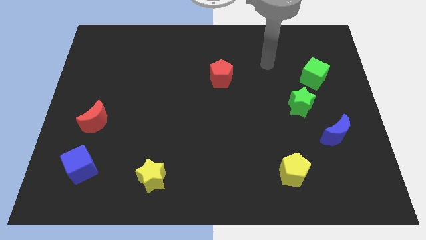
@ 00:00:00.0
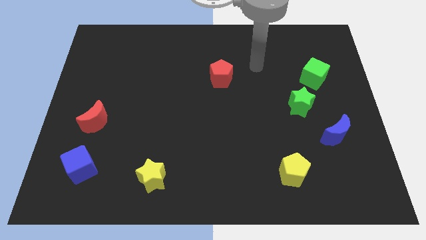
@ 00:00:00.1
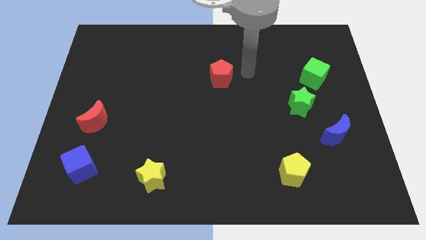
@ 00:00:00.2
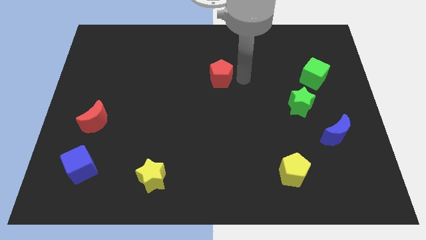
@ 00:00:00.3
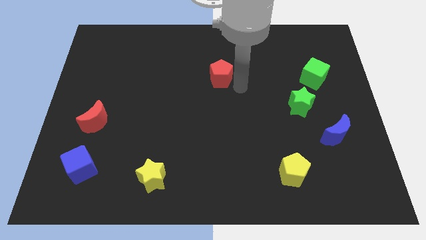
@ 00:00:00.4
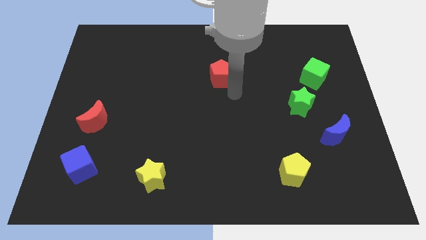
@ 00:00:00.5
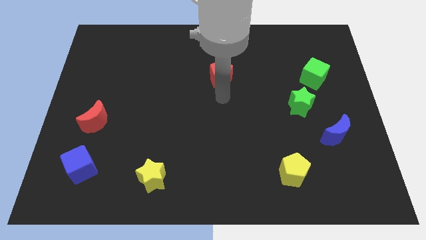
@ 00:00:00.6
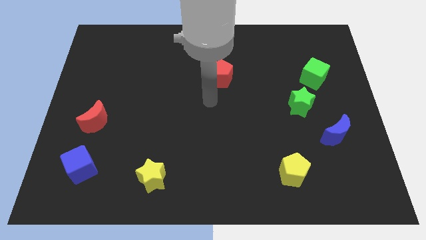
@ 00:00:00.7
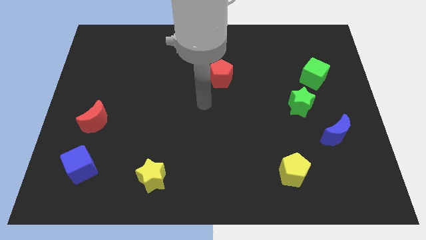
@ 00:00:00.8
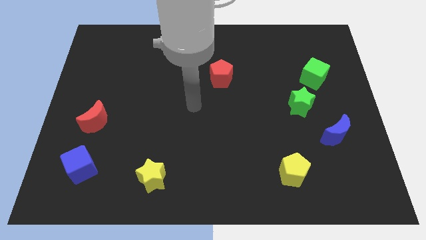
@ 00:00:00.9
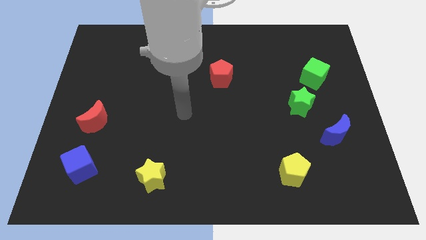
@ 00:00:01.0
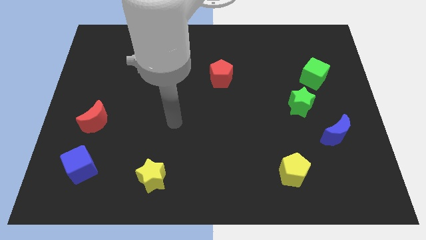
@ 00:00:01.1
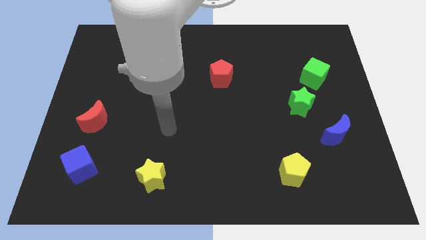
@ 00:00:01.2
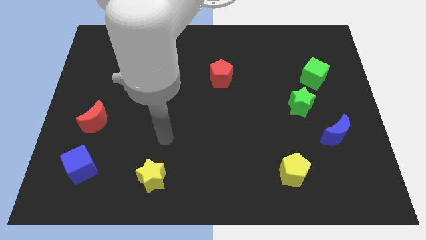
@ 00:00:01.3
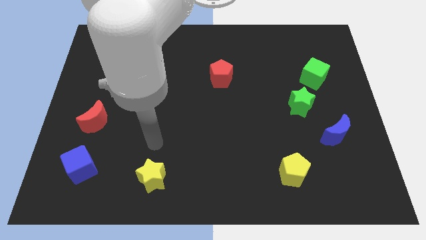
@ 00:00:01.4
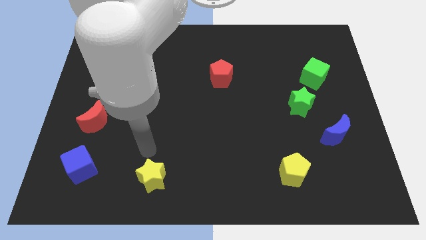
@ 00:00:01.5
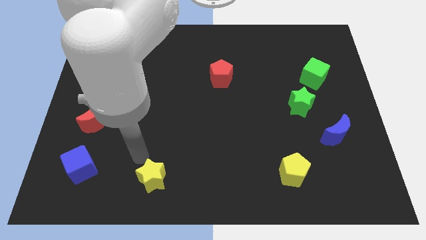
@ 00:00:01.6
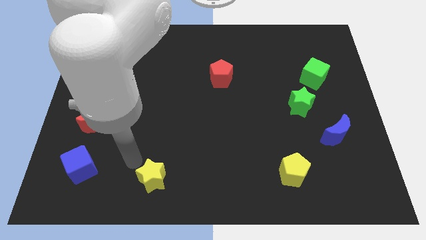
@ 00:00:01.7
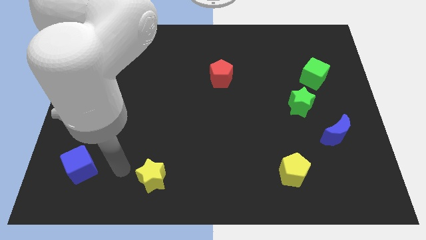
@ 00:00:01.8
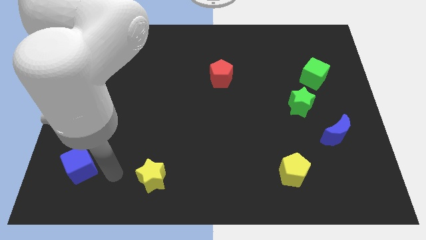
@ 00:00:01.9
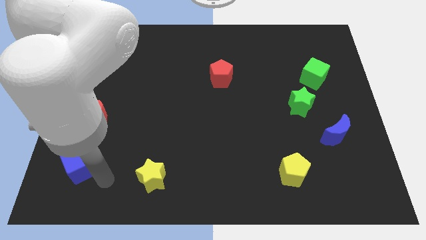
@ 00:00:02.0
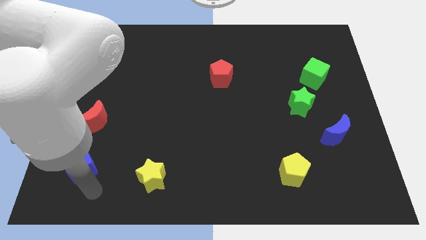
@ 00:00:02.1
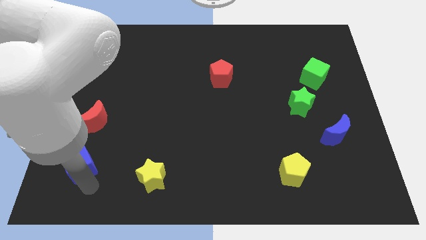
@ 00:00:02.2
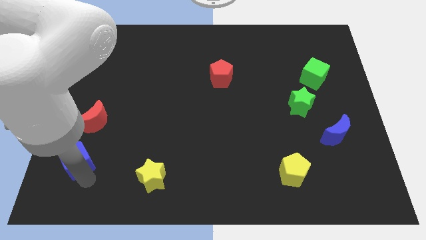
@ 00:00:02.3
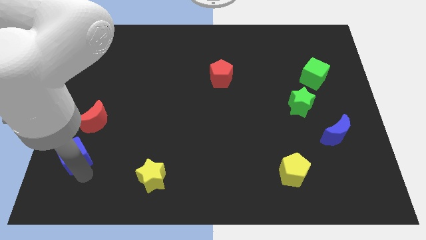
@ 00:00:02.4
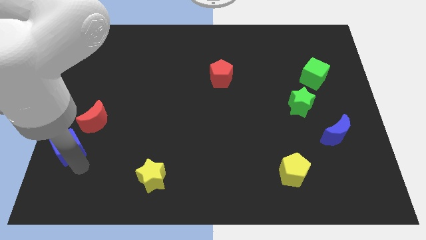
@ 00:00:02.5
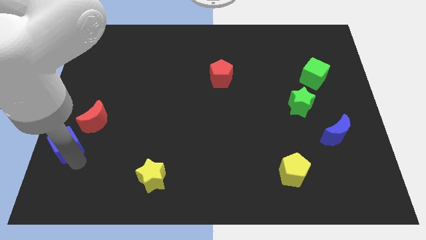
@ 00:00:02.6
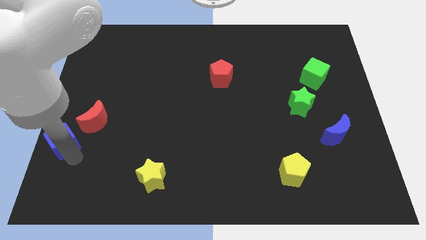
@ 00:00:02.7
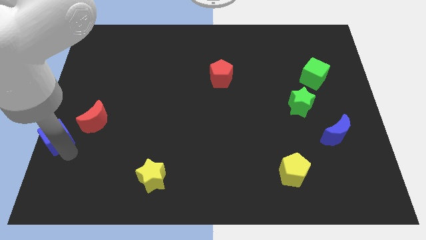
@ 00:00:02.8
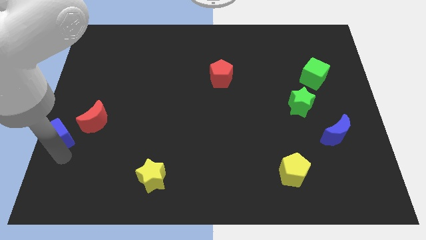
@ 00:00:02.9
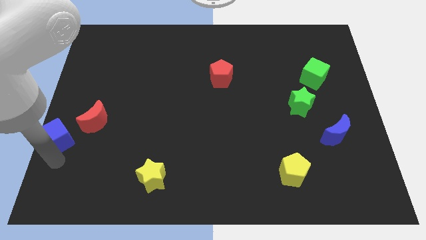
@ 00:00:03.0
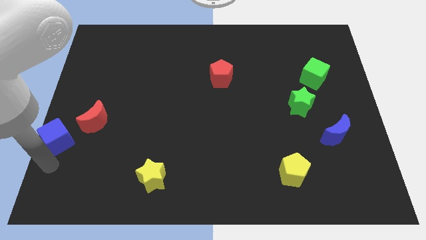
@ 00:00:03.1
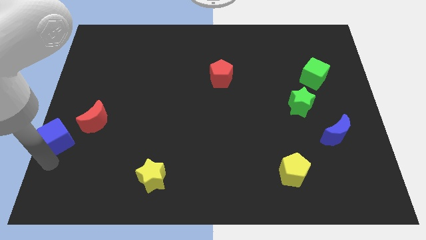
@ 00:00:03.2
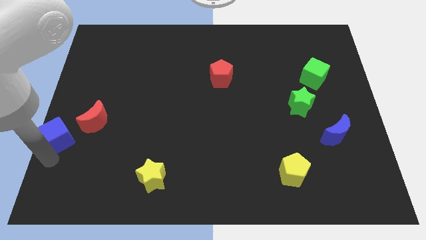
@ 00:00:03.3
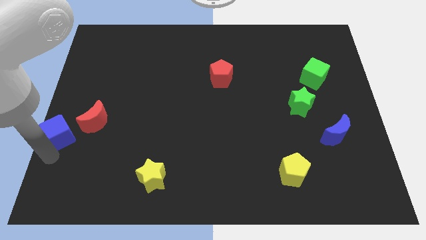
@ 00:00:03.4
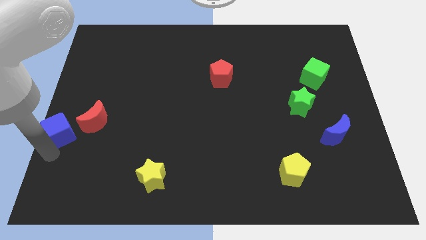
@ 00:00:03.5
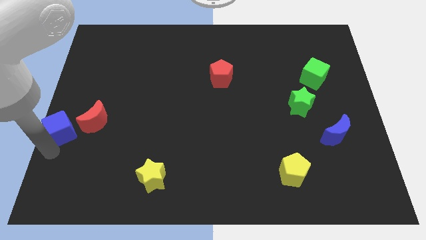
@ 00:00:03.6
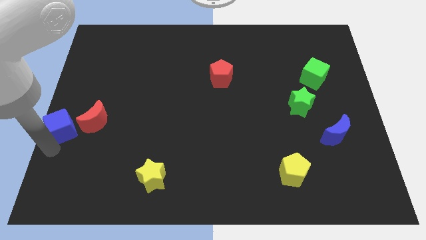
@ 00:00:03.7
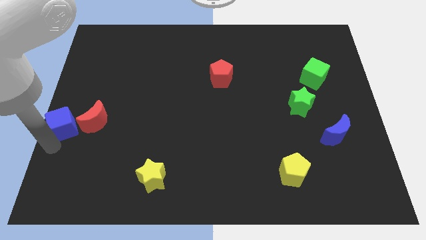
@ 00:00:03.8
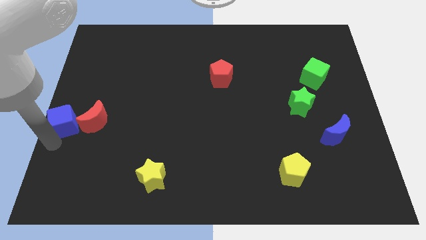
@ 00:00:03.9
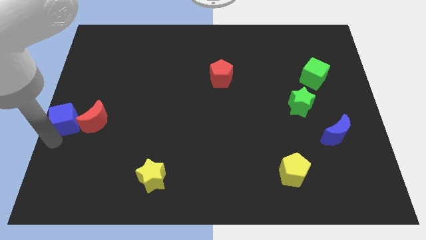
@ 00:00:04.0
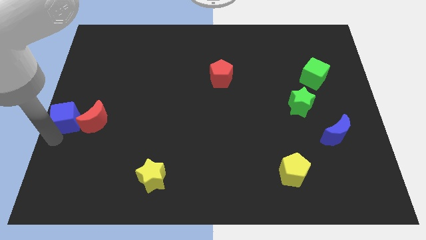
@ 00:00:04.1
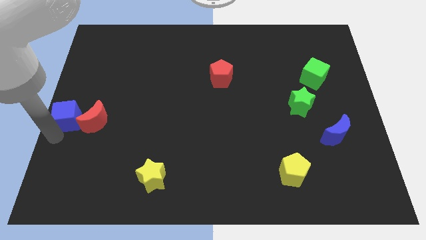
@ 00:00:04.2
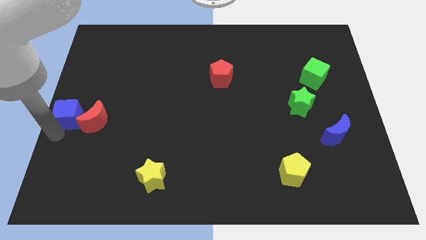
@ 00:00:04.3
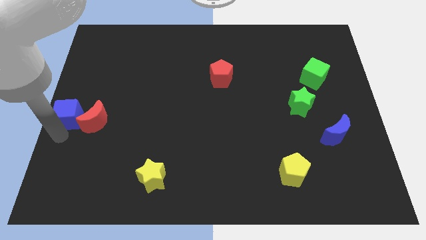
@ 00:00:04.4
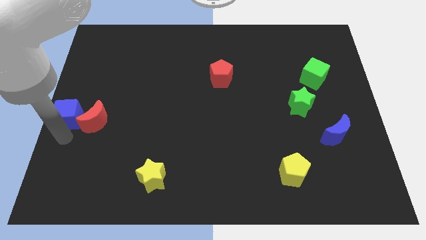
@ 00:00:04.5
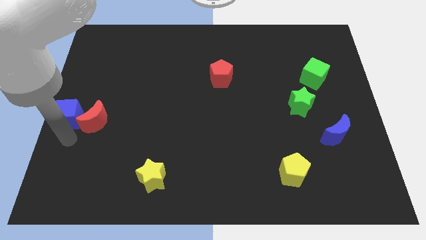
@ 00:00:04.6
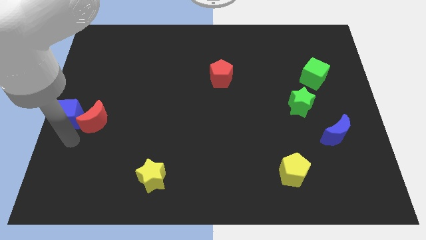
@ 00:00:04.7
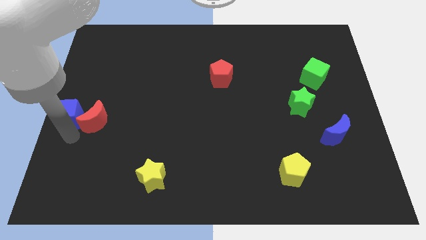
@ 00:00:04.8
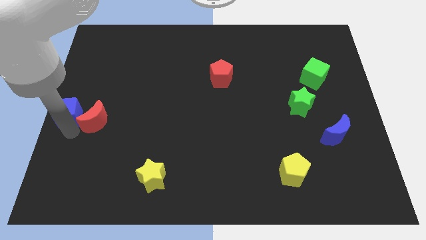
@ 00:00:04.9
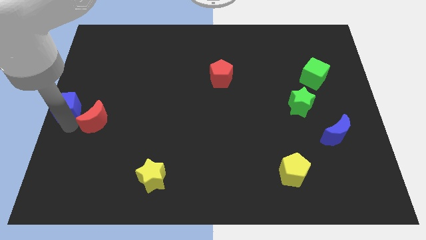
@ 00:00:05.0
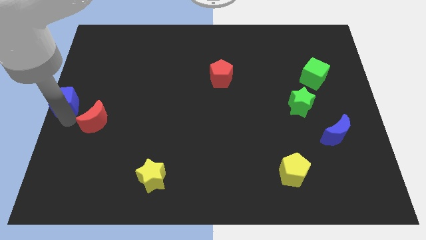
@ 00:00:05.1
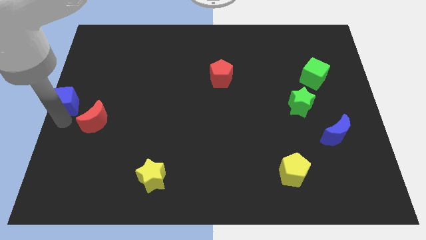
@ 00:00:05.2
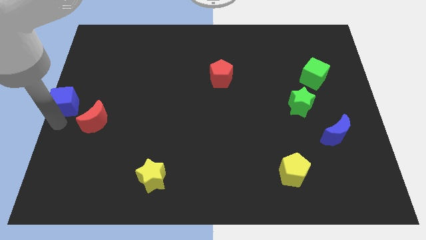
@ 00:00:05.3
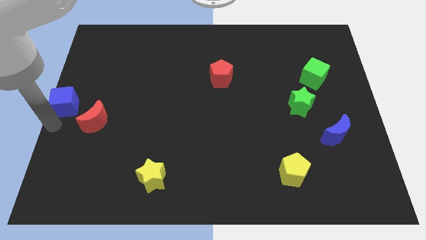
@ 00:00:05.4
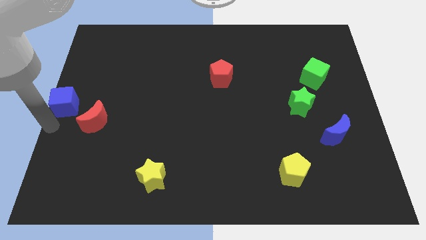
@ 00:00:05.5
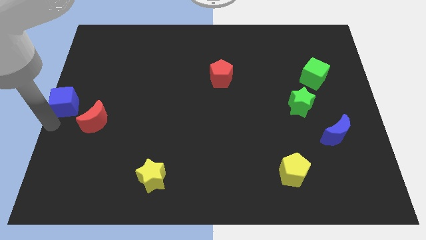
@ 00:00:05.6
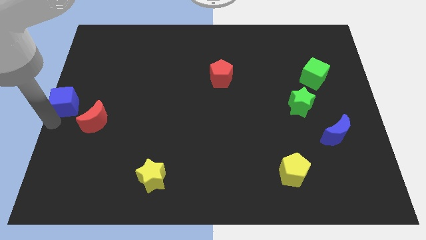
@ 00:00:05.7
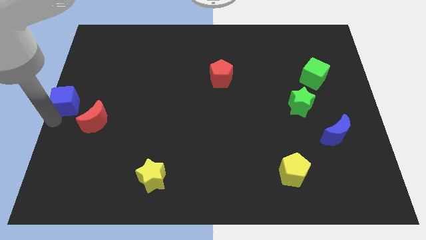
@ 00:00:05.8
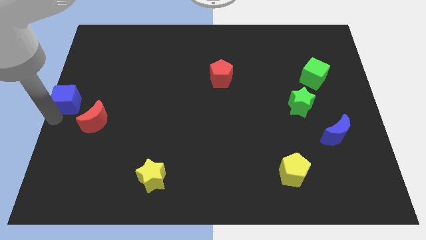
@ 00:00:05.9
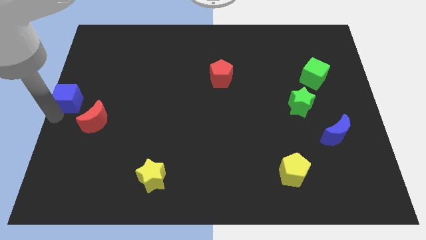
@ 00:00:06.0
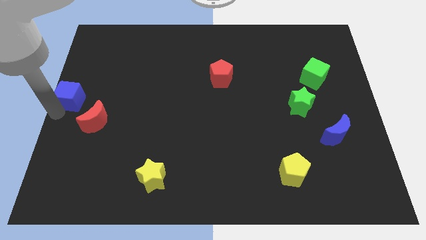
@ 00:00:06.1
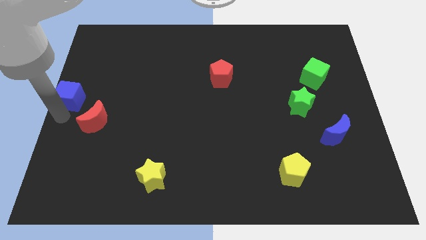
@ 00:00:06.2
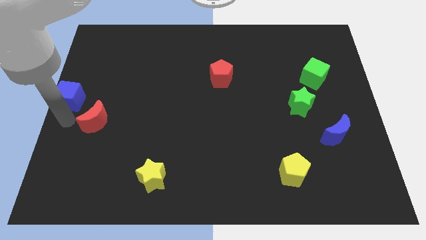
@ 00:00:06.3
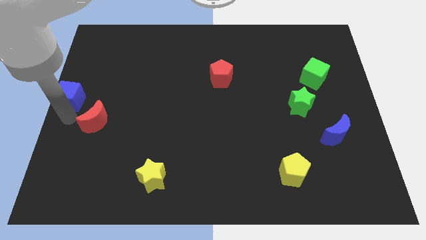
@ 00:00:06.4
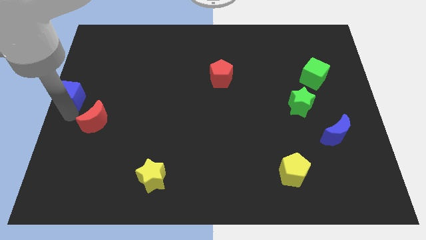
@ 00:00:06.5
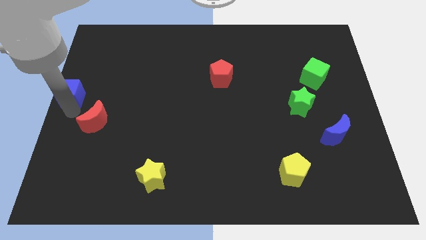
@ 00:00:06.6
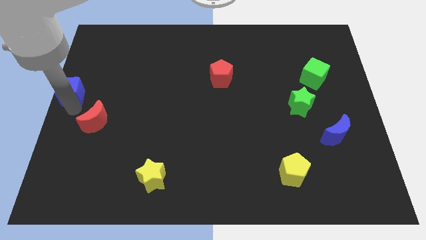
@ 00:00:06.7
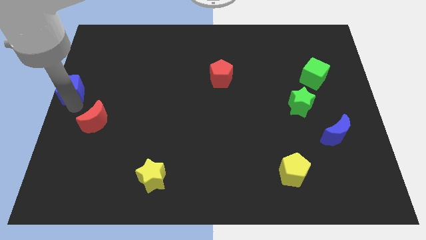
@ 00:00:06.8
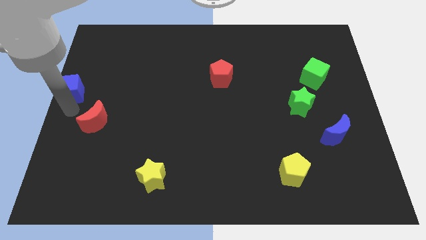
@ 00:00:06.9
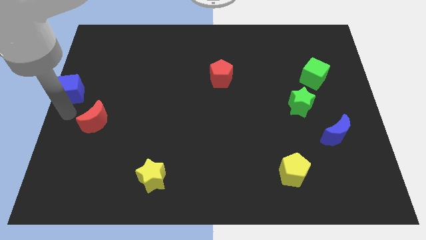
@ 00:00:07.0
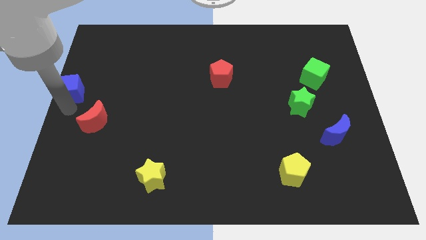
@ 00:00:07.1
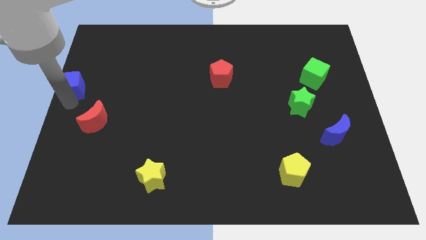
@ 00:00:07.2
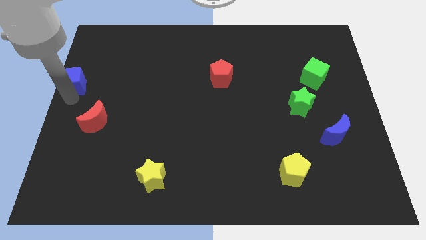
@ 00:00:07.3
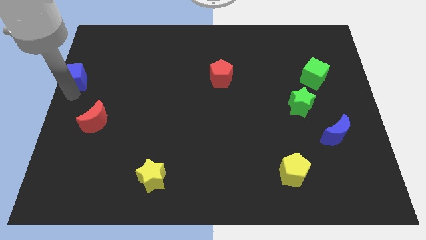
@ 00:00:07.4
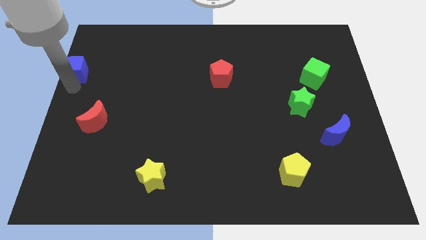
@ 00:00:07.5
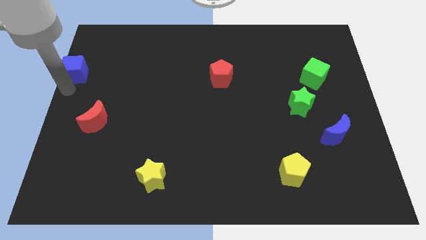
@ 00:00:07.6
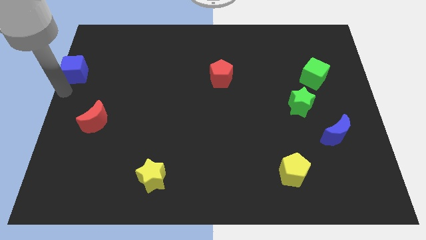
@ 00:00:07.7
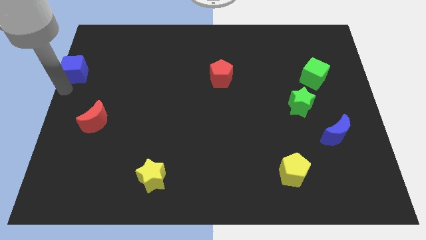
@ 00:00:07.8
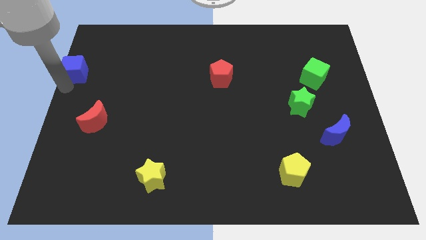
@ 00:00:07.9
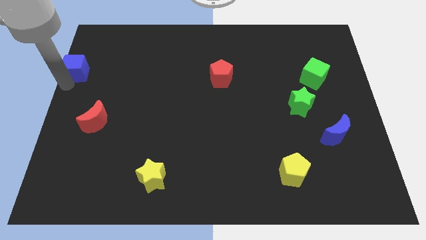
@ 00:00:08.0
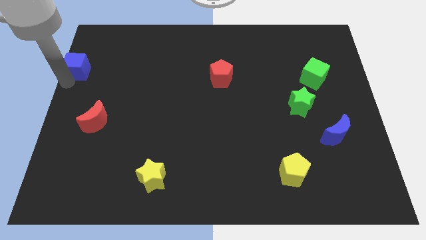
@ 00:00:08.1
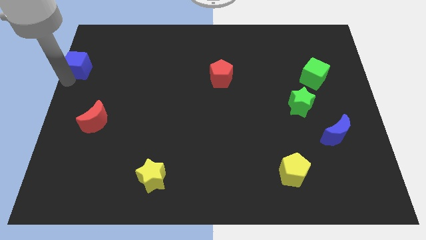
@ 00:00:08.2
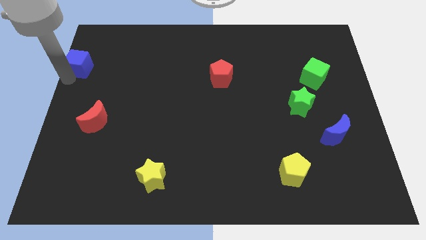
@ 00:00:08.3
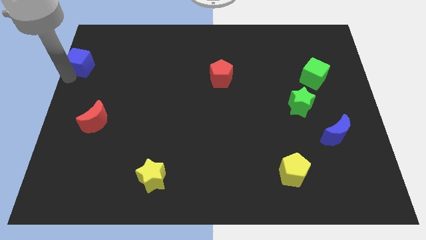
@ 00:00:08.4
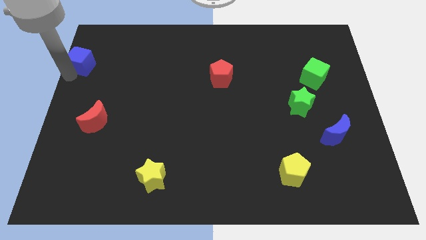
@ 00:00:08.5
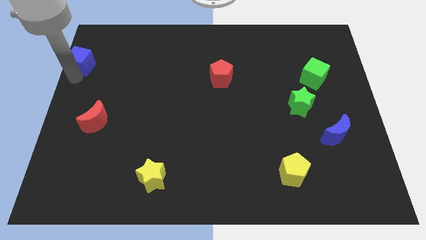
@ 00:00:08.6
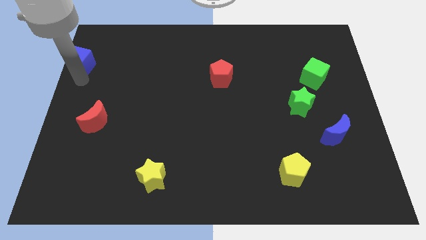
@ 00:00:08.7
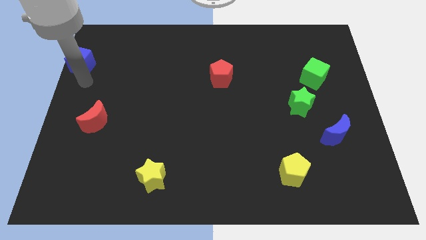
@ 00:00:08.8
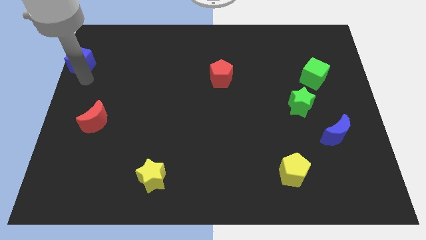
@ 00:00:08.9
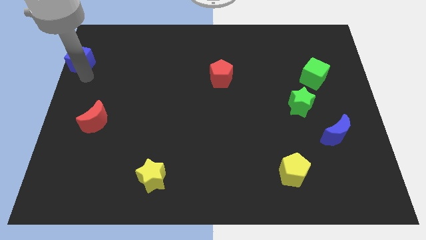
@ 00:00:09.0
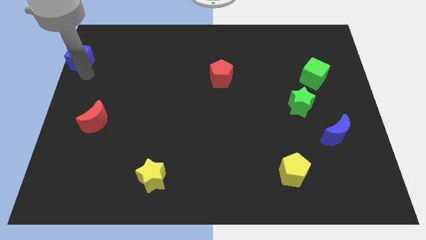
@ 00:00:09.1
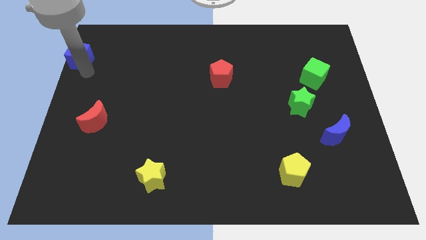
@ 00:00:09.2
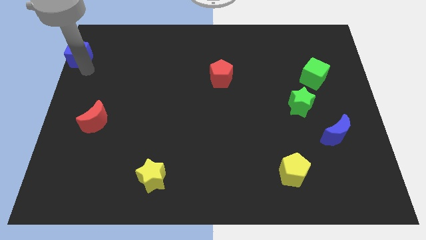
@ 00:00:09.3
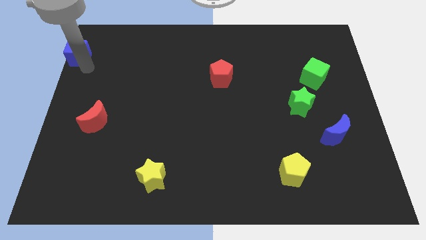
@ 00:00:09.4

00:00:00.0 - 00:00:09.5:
slide the blue cube to the top left
